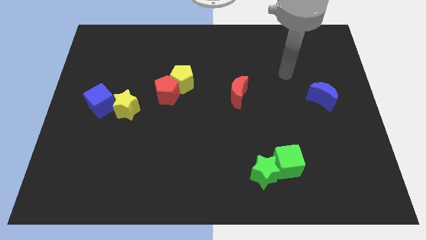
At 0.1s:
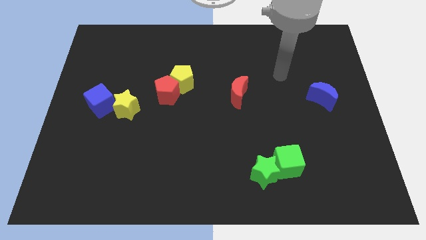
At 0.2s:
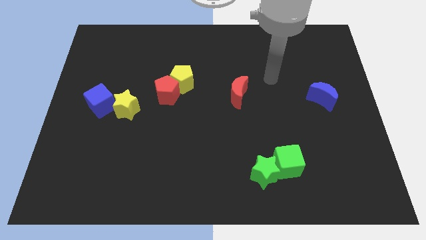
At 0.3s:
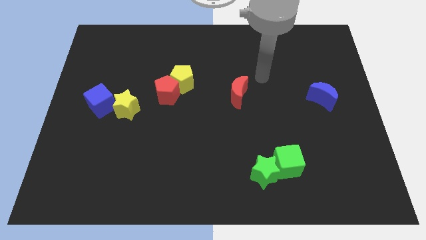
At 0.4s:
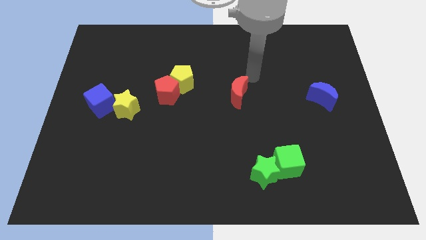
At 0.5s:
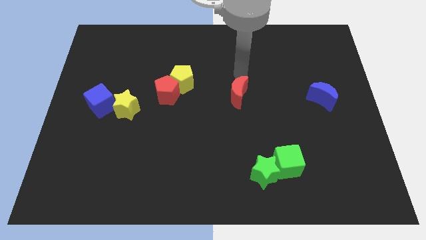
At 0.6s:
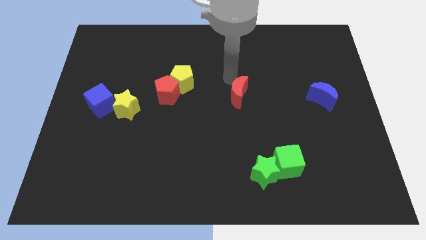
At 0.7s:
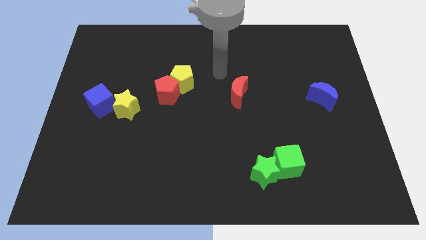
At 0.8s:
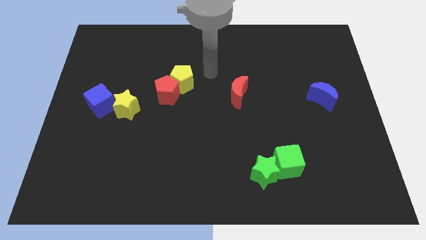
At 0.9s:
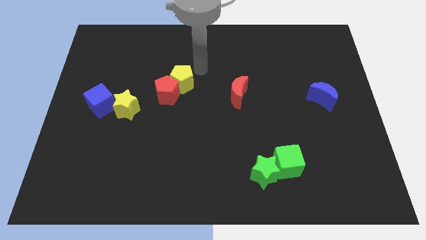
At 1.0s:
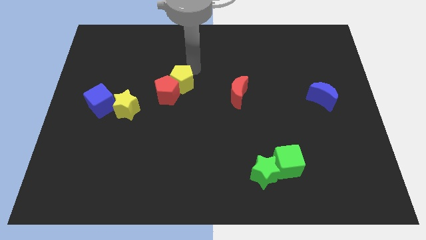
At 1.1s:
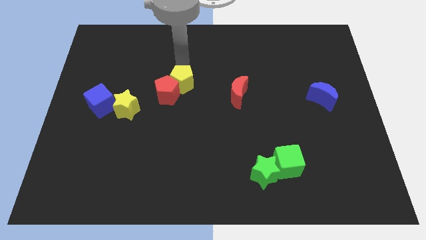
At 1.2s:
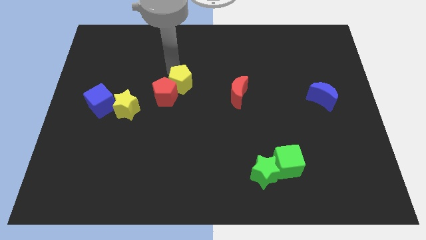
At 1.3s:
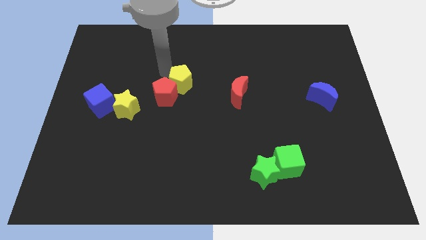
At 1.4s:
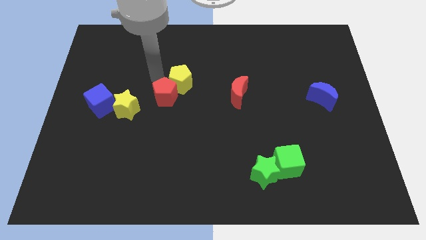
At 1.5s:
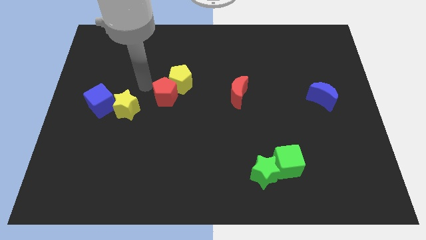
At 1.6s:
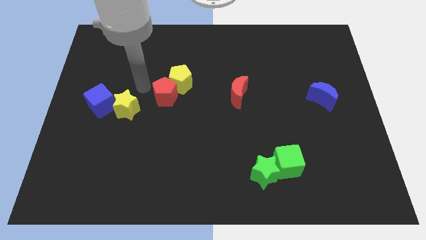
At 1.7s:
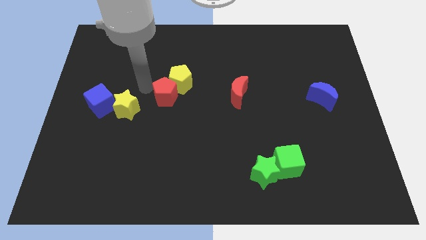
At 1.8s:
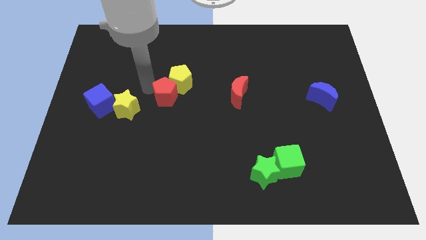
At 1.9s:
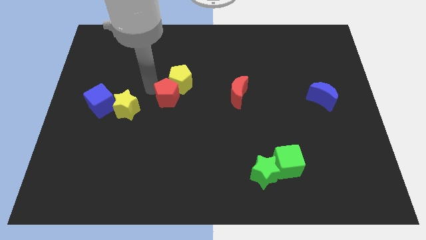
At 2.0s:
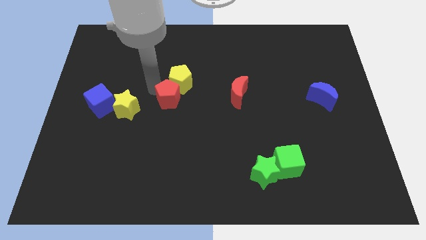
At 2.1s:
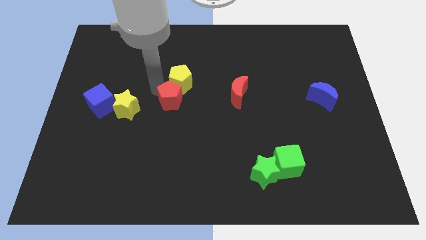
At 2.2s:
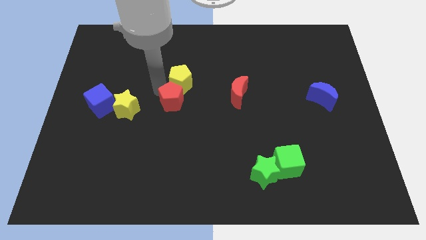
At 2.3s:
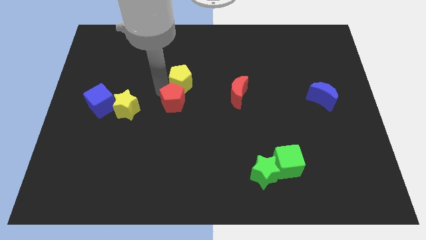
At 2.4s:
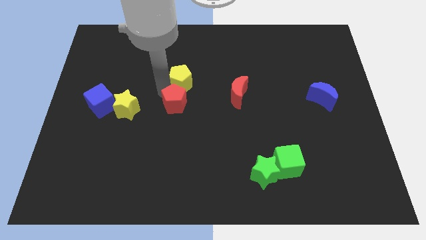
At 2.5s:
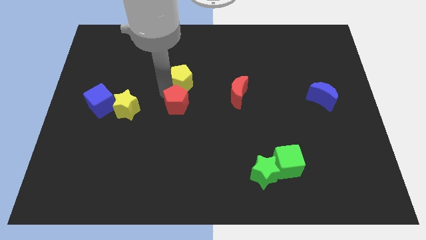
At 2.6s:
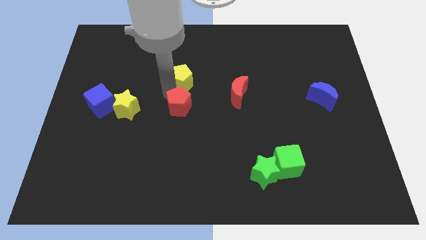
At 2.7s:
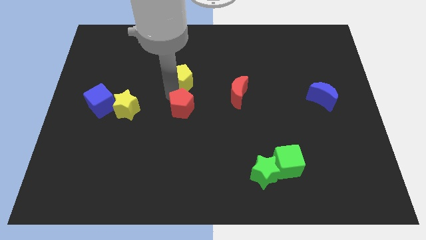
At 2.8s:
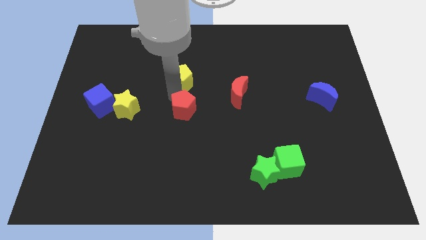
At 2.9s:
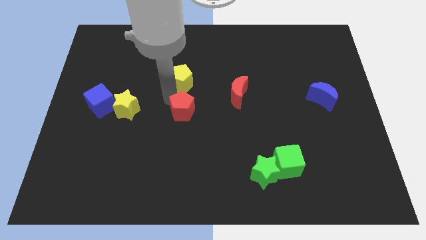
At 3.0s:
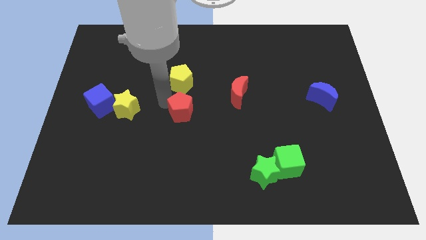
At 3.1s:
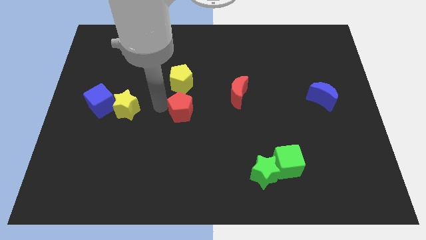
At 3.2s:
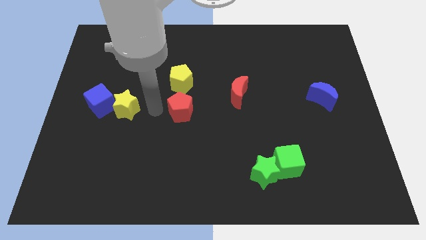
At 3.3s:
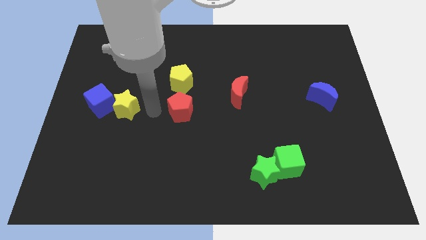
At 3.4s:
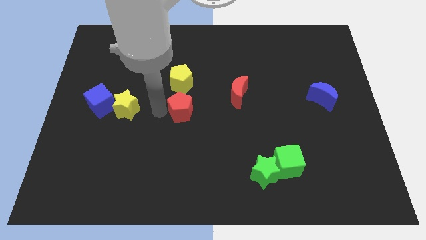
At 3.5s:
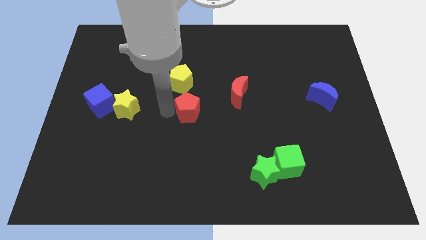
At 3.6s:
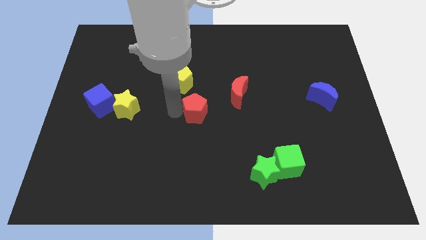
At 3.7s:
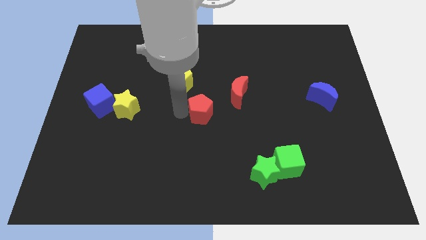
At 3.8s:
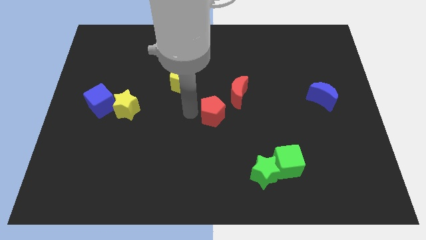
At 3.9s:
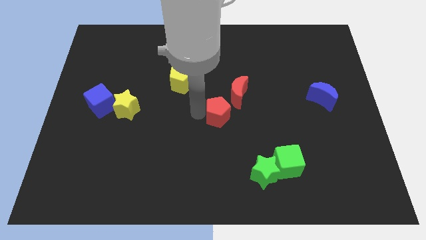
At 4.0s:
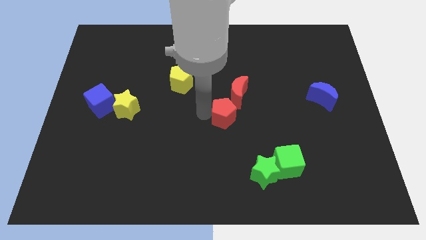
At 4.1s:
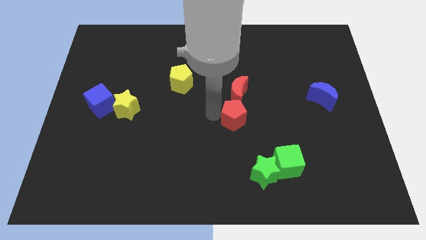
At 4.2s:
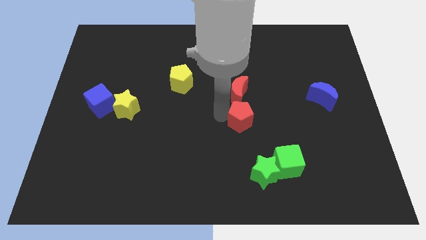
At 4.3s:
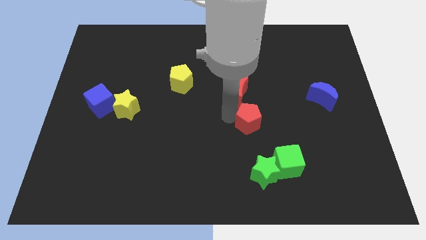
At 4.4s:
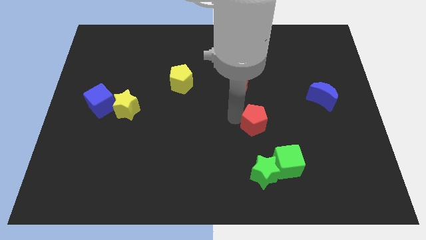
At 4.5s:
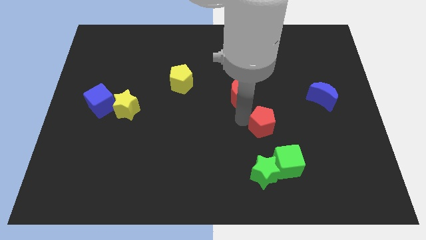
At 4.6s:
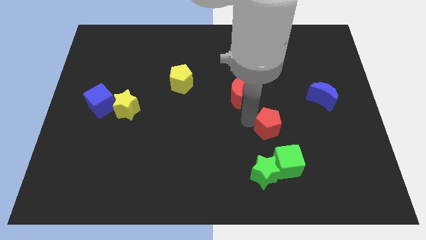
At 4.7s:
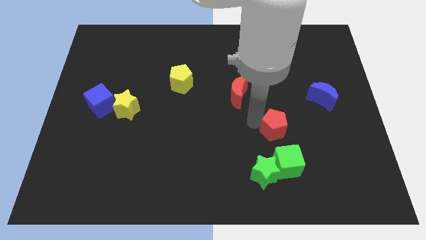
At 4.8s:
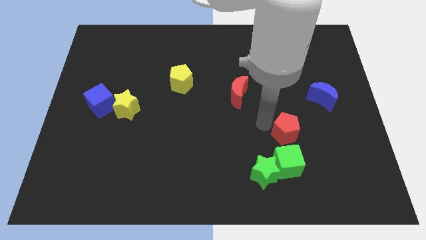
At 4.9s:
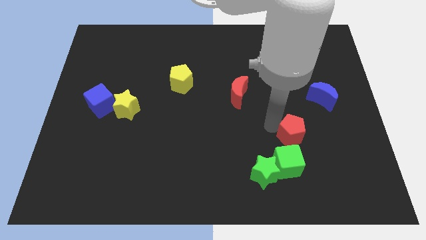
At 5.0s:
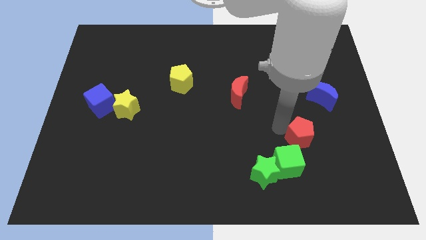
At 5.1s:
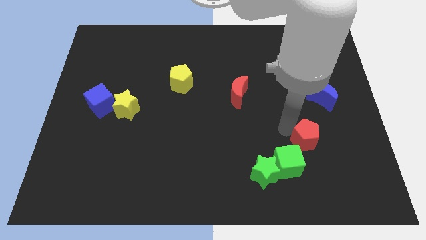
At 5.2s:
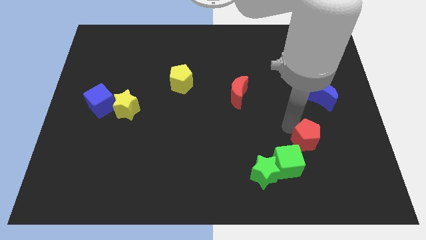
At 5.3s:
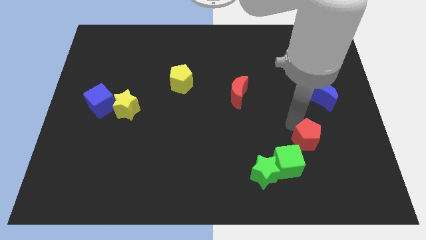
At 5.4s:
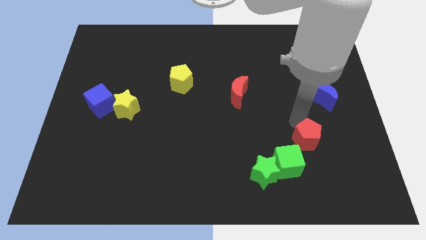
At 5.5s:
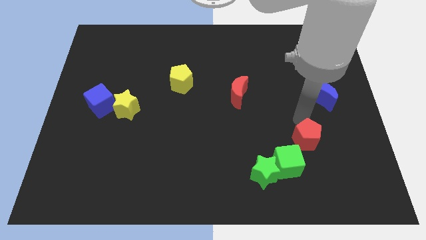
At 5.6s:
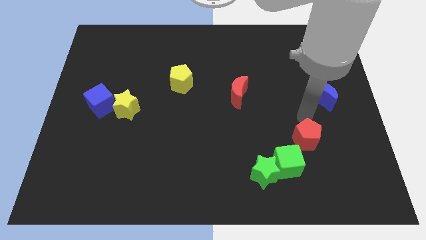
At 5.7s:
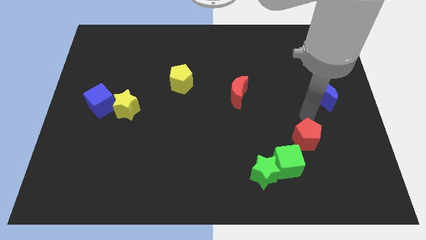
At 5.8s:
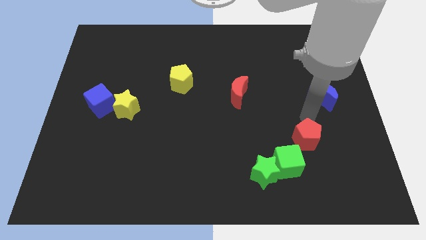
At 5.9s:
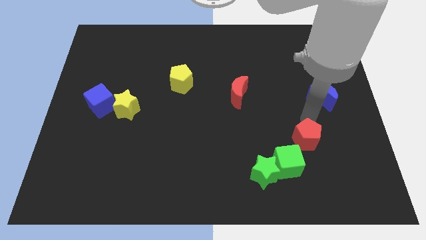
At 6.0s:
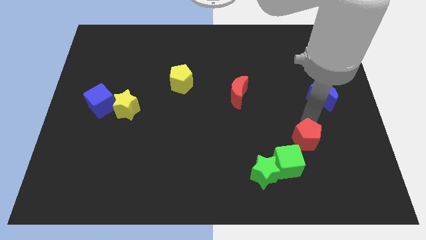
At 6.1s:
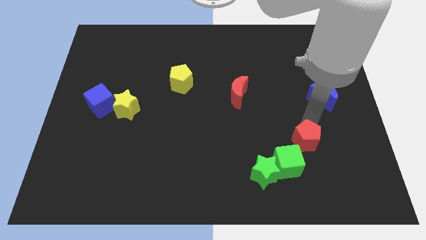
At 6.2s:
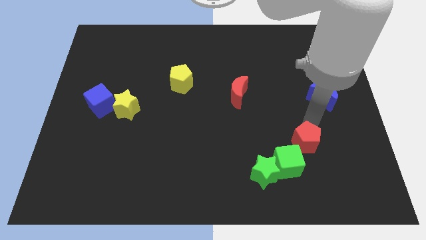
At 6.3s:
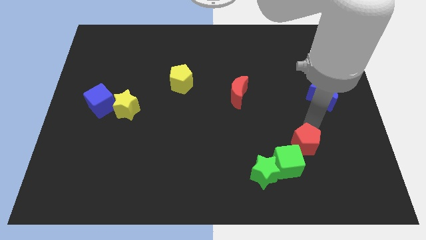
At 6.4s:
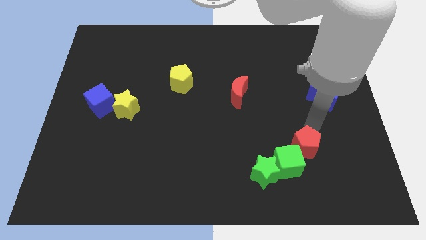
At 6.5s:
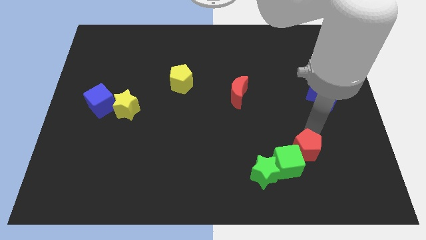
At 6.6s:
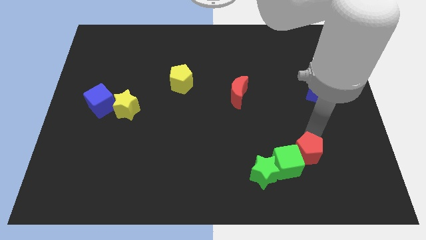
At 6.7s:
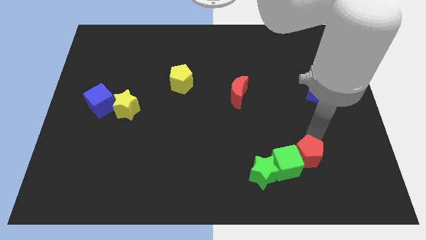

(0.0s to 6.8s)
put the red pentagon to the right of the green star

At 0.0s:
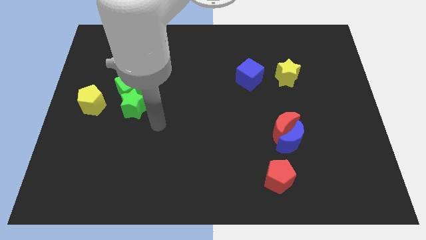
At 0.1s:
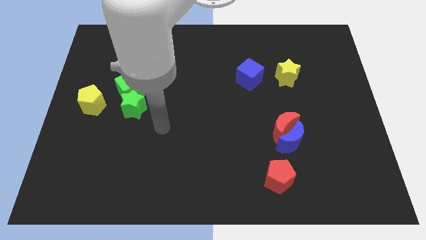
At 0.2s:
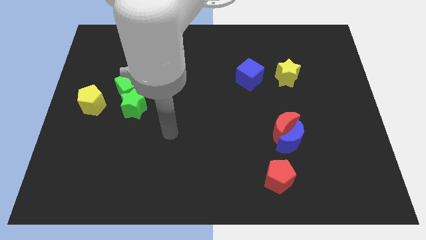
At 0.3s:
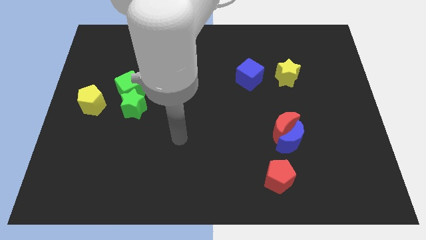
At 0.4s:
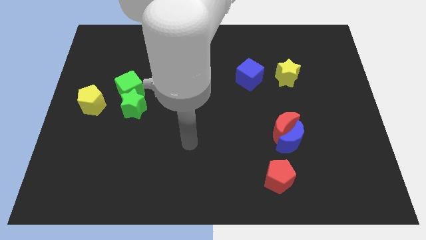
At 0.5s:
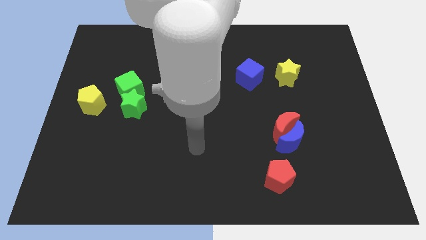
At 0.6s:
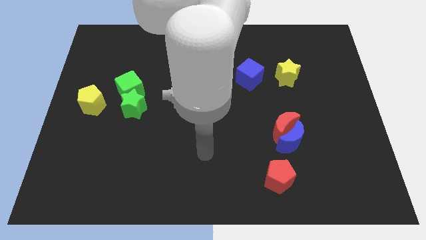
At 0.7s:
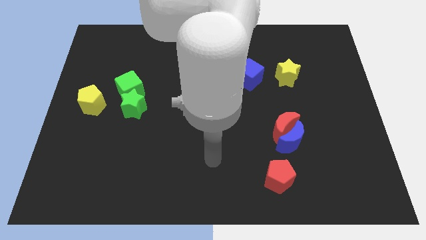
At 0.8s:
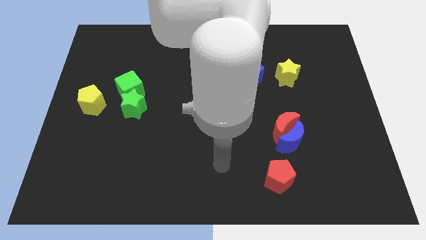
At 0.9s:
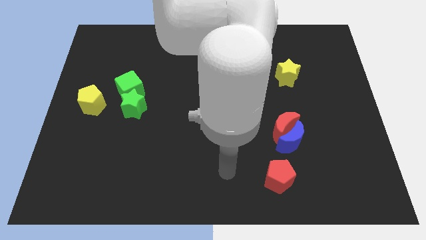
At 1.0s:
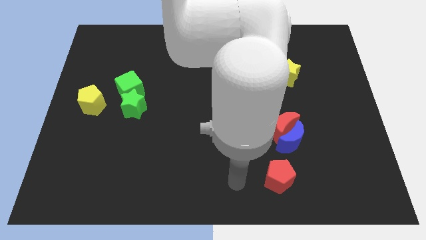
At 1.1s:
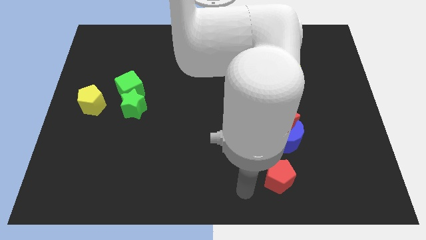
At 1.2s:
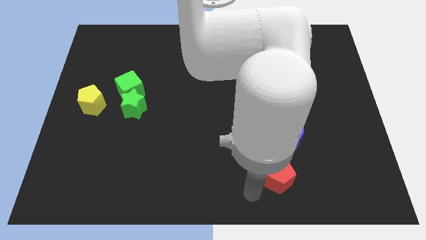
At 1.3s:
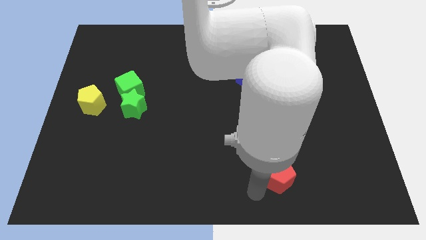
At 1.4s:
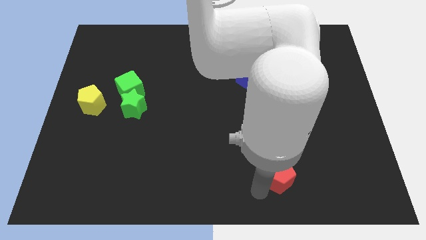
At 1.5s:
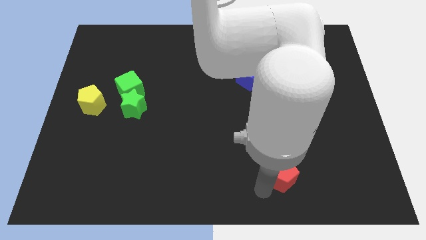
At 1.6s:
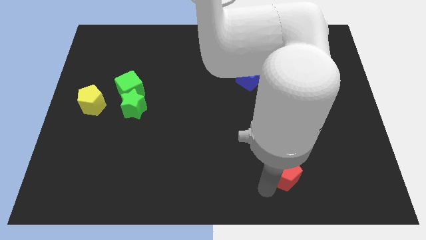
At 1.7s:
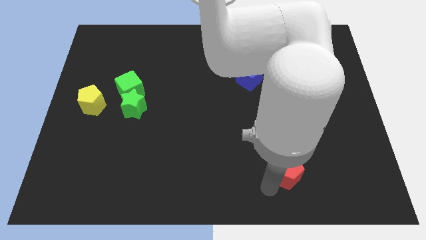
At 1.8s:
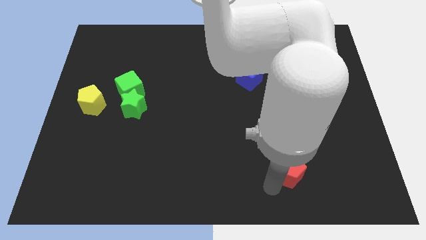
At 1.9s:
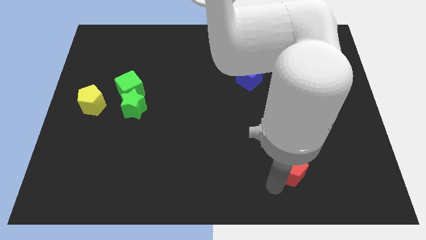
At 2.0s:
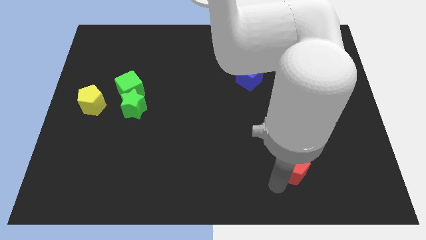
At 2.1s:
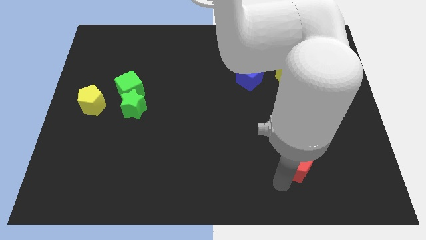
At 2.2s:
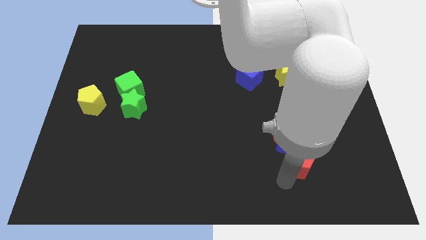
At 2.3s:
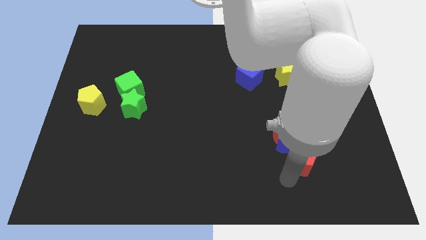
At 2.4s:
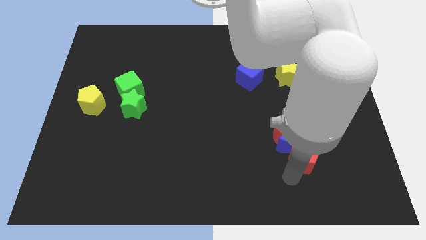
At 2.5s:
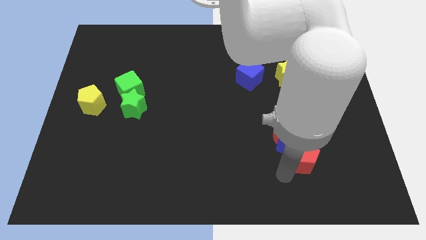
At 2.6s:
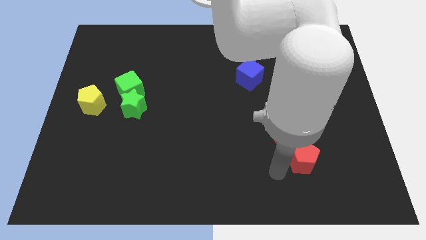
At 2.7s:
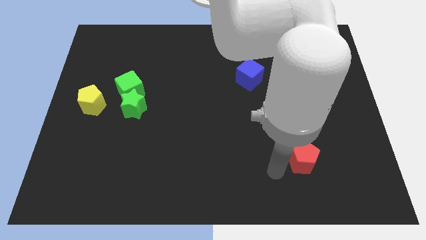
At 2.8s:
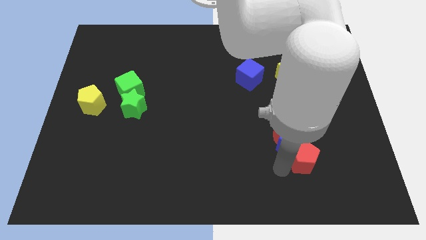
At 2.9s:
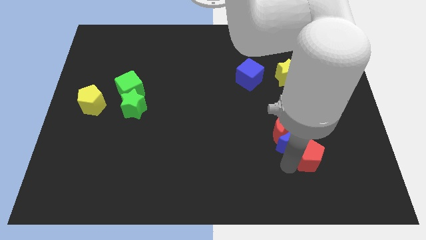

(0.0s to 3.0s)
slide the red pentagon right of the blue moon
